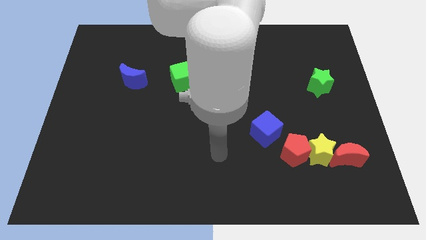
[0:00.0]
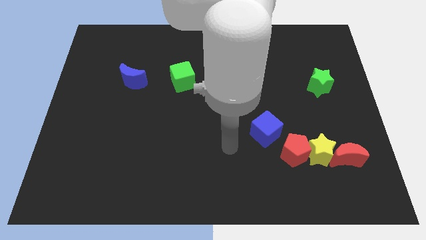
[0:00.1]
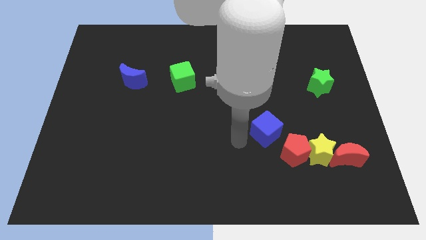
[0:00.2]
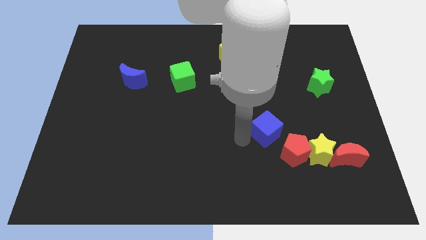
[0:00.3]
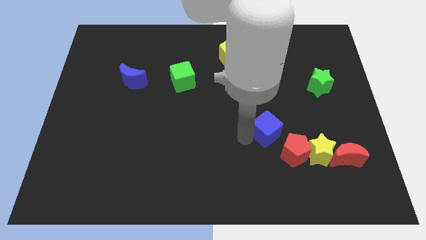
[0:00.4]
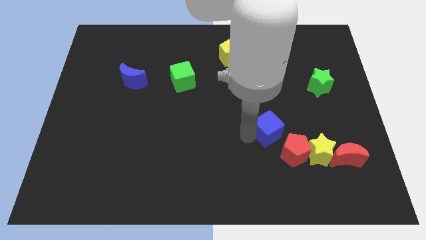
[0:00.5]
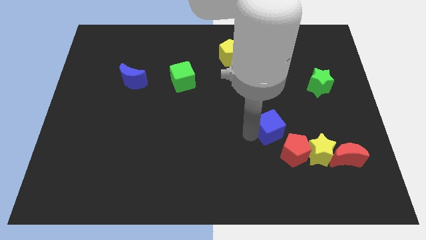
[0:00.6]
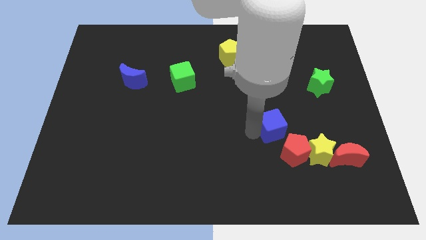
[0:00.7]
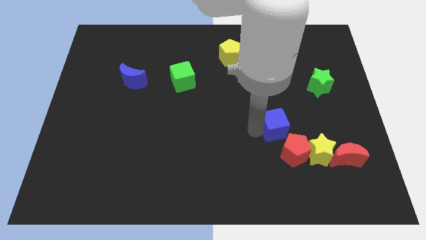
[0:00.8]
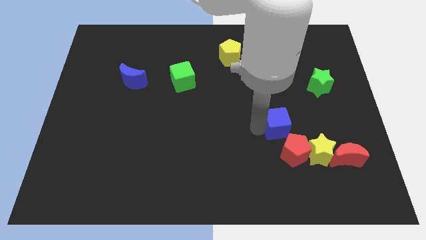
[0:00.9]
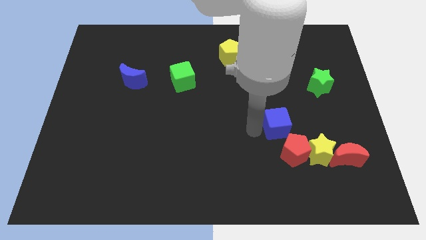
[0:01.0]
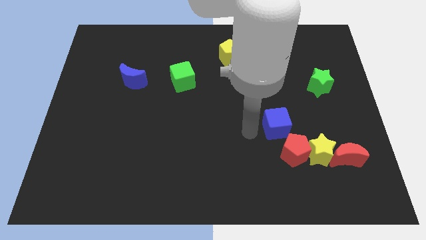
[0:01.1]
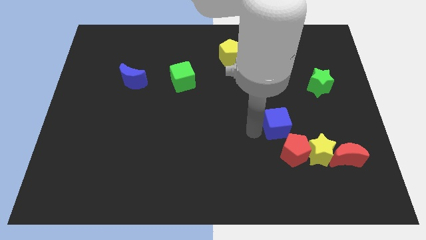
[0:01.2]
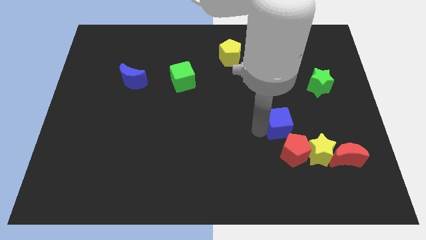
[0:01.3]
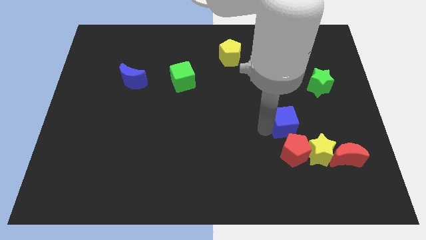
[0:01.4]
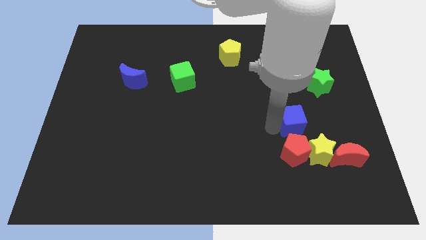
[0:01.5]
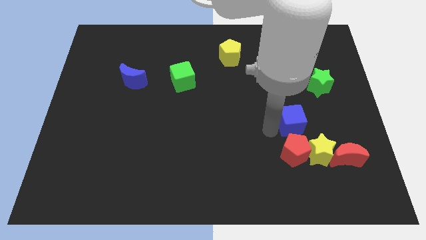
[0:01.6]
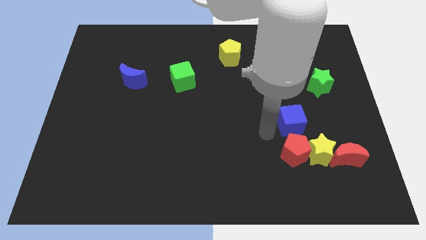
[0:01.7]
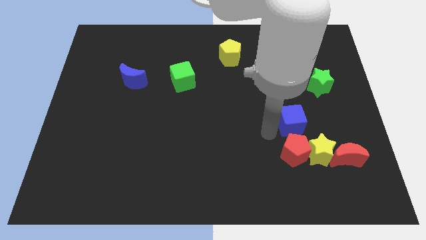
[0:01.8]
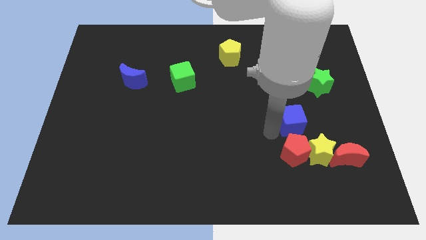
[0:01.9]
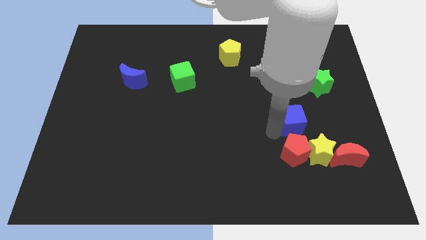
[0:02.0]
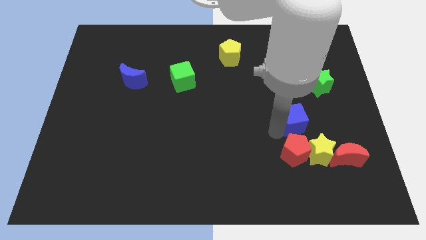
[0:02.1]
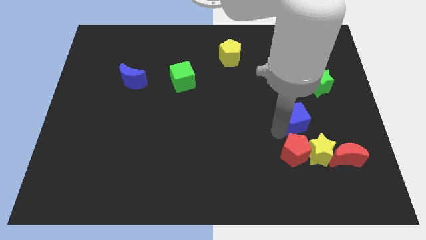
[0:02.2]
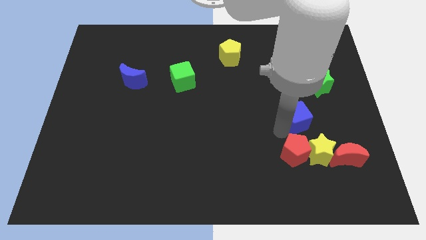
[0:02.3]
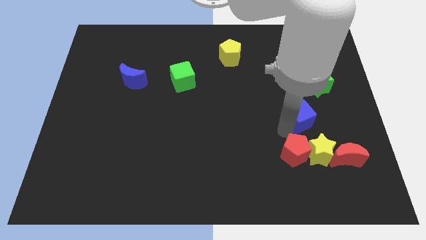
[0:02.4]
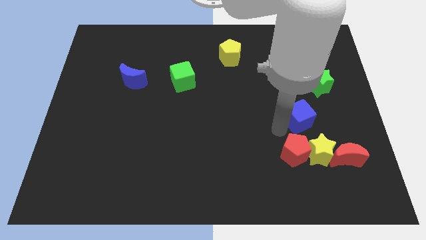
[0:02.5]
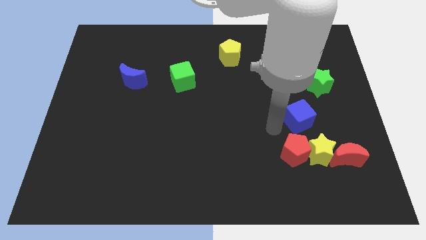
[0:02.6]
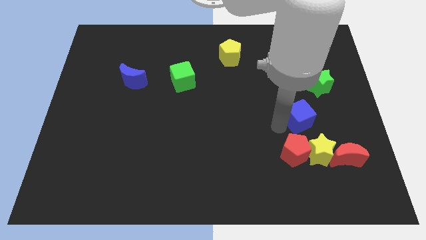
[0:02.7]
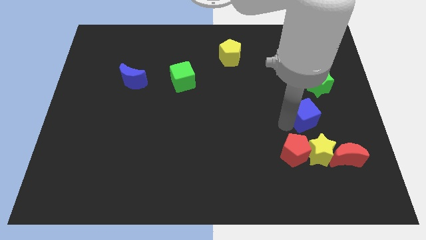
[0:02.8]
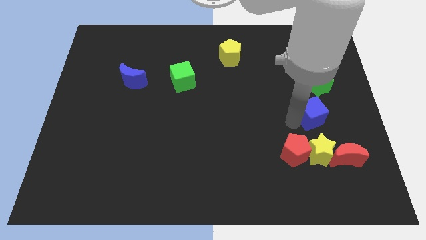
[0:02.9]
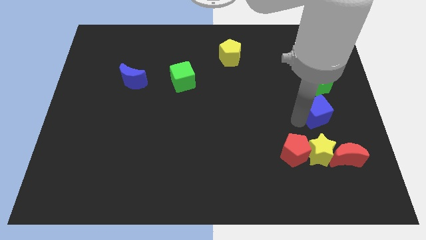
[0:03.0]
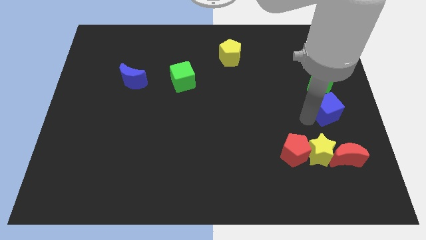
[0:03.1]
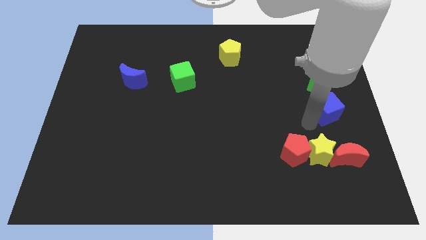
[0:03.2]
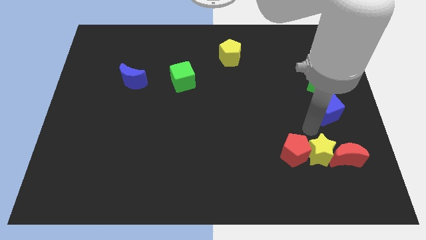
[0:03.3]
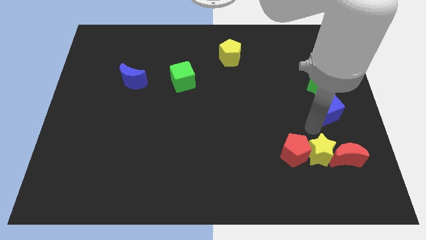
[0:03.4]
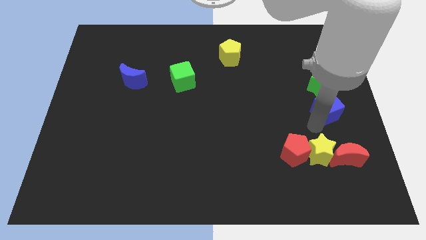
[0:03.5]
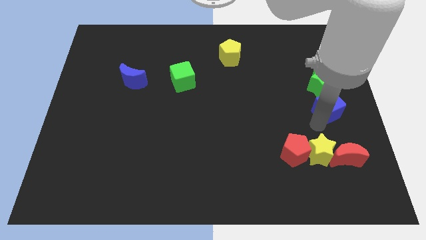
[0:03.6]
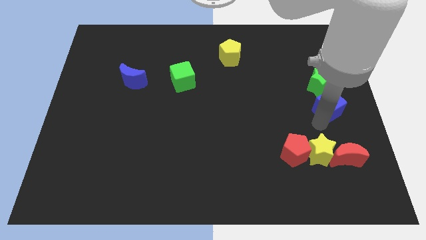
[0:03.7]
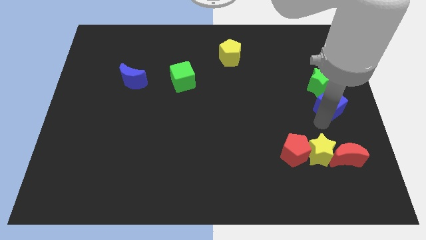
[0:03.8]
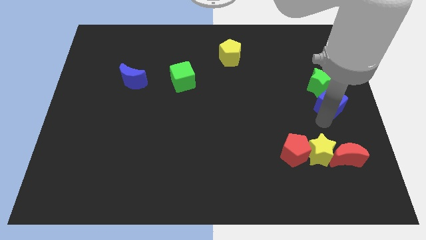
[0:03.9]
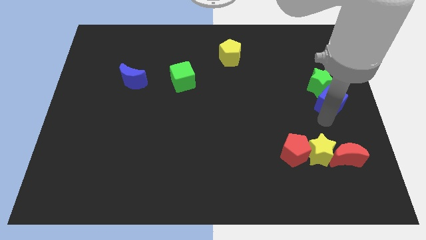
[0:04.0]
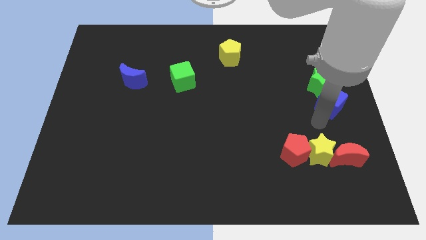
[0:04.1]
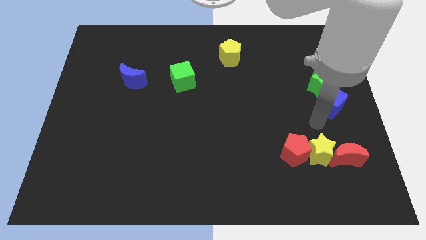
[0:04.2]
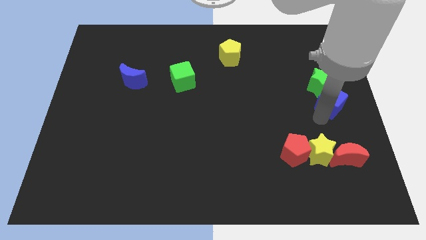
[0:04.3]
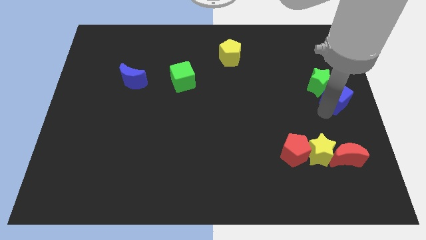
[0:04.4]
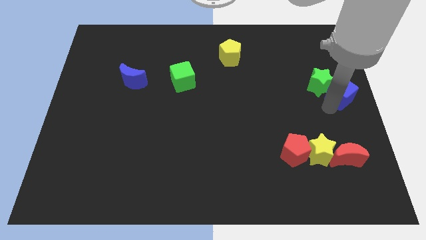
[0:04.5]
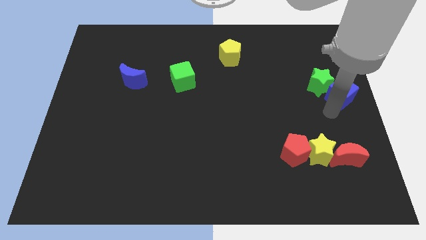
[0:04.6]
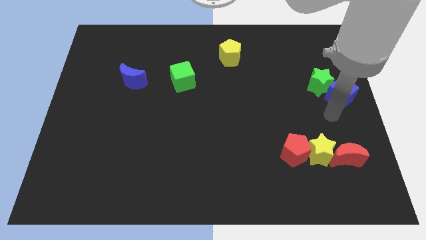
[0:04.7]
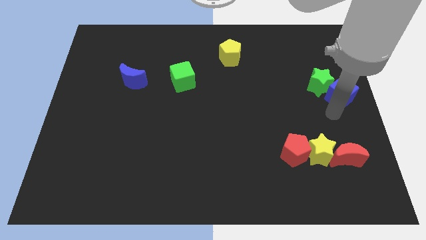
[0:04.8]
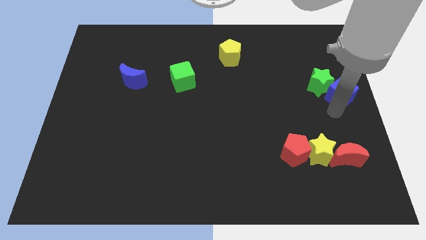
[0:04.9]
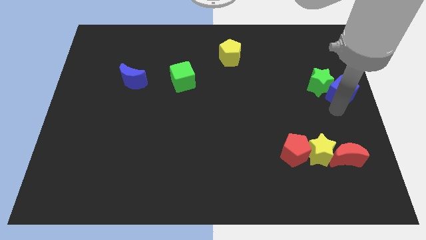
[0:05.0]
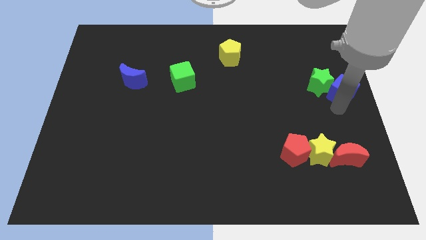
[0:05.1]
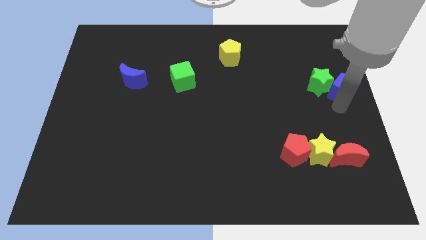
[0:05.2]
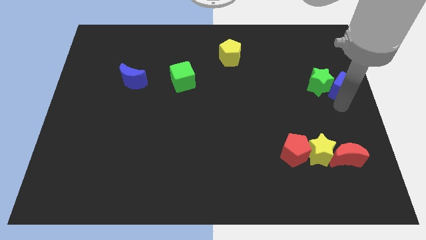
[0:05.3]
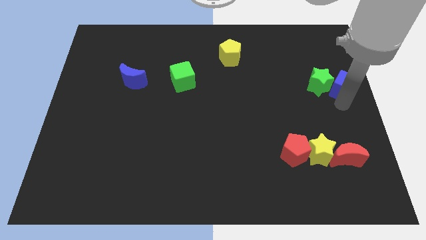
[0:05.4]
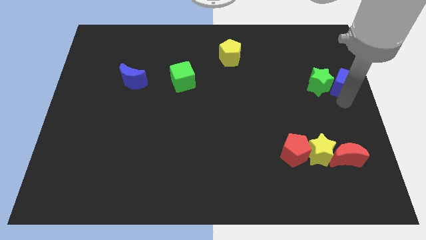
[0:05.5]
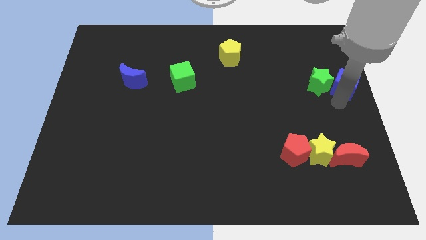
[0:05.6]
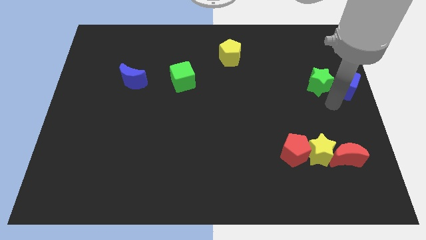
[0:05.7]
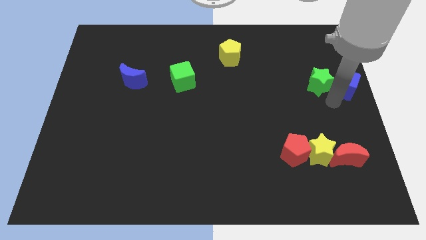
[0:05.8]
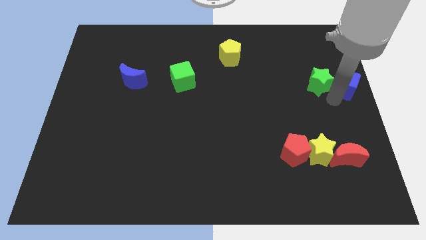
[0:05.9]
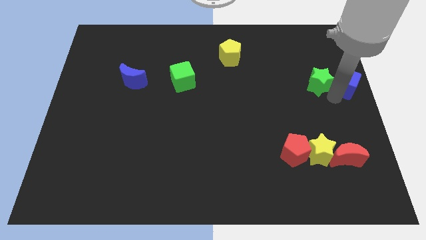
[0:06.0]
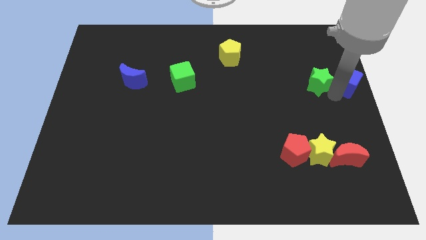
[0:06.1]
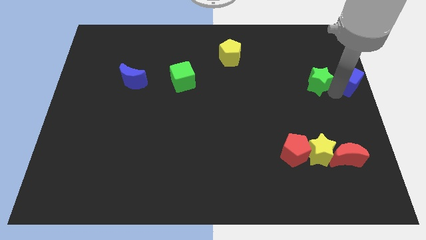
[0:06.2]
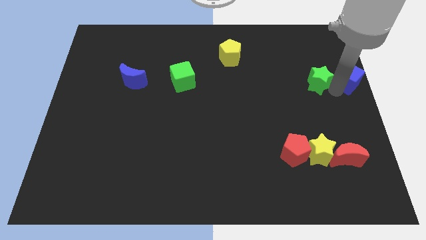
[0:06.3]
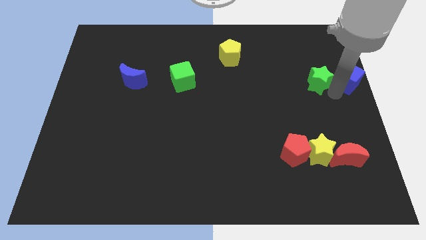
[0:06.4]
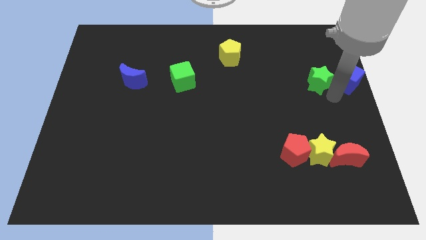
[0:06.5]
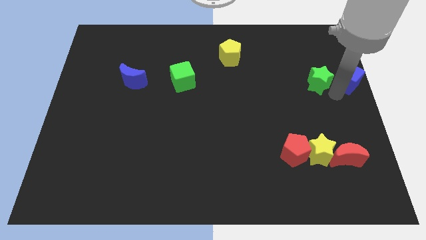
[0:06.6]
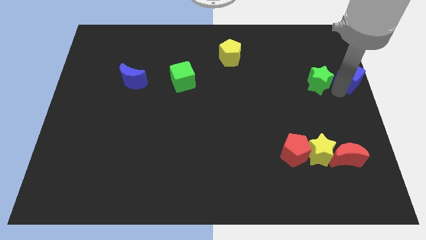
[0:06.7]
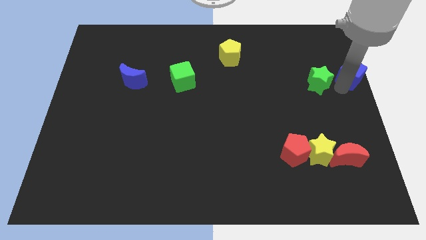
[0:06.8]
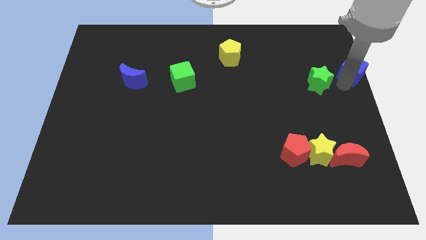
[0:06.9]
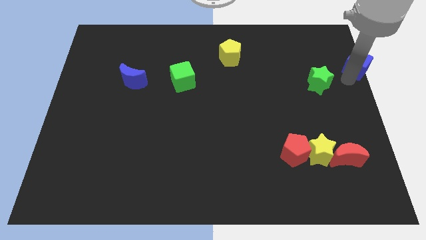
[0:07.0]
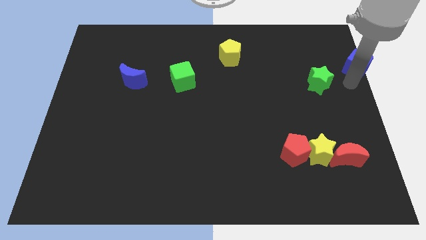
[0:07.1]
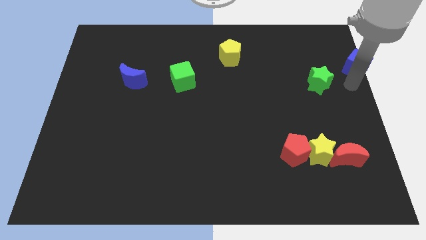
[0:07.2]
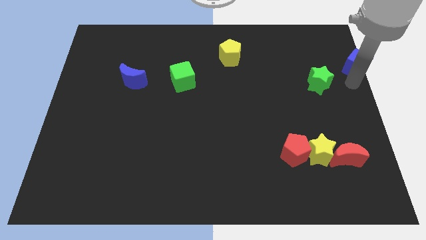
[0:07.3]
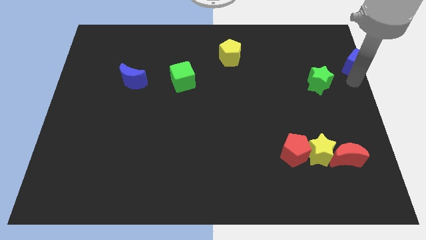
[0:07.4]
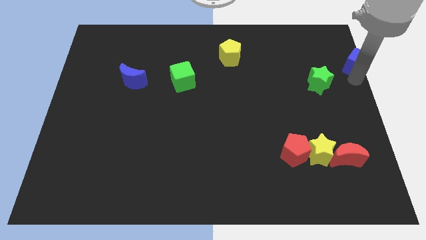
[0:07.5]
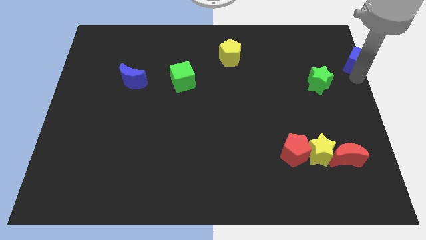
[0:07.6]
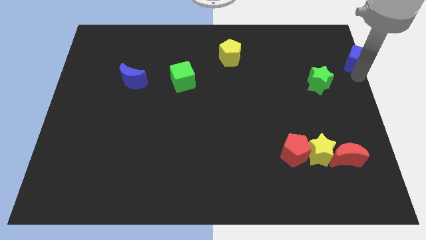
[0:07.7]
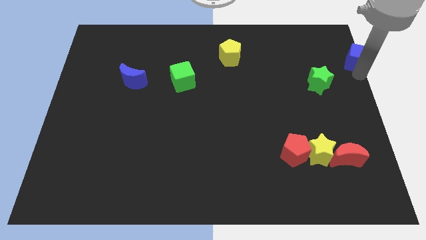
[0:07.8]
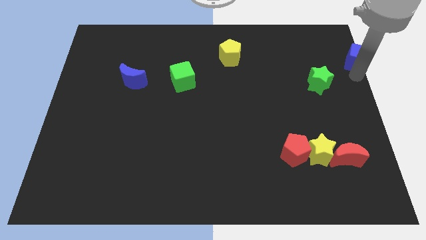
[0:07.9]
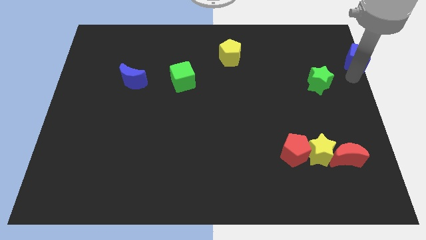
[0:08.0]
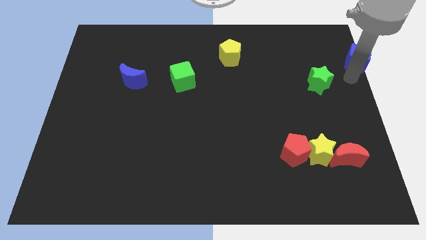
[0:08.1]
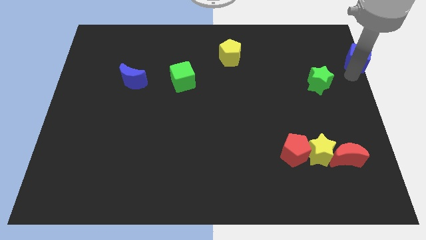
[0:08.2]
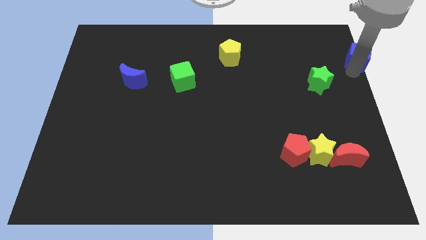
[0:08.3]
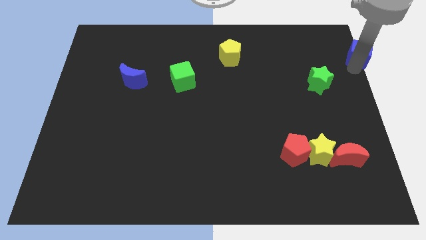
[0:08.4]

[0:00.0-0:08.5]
move the blue cube to the top right
